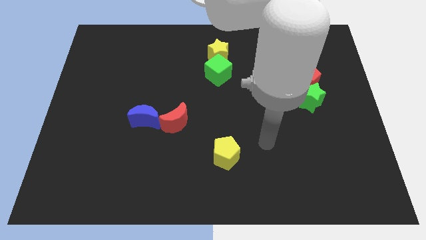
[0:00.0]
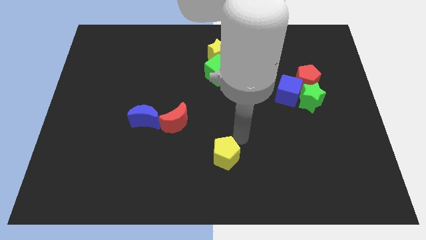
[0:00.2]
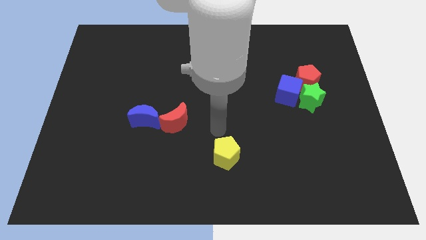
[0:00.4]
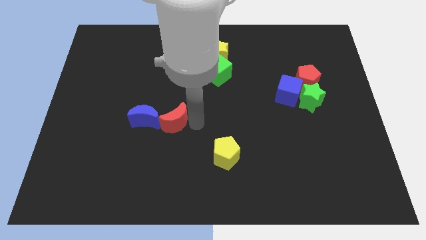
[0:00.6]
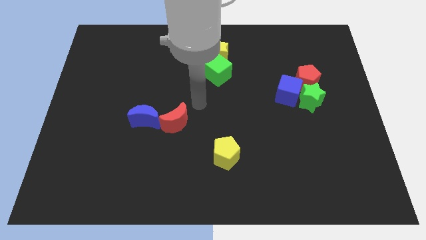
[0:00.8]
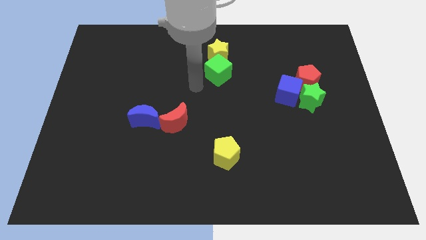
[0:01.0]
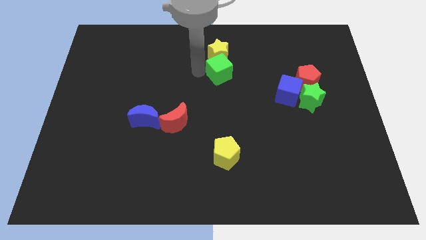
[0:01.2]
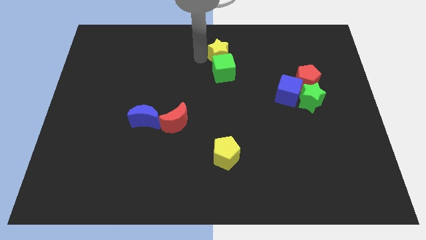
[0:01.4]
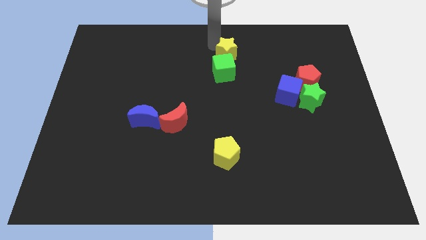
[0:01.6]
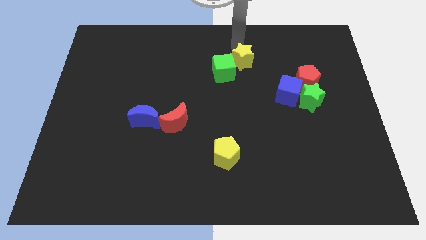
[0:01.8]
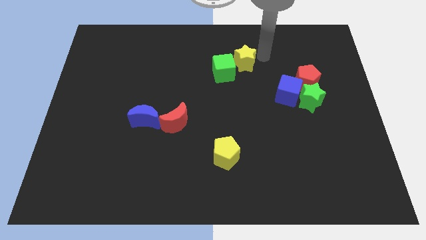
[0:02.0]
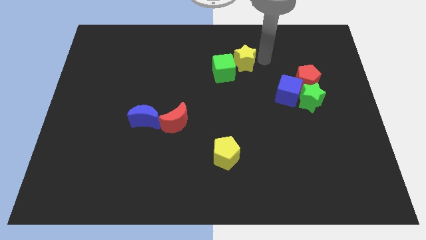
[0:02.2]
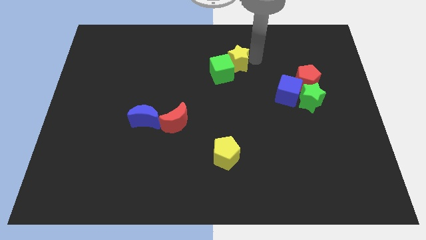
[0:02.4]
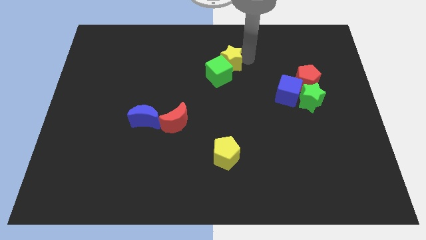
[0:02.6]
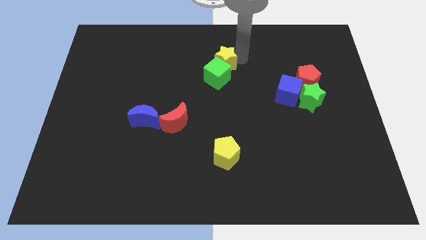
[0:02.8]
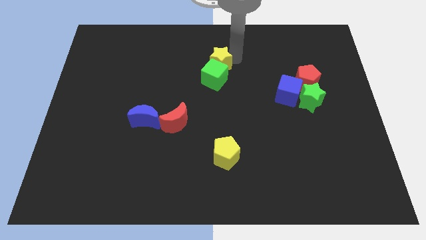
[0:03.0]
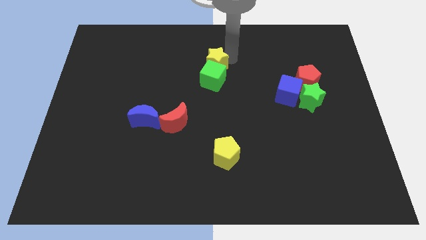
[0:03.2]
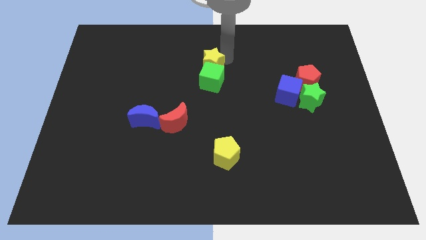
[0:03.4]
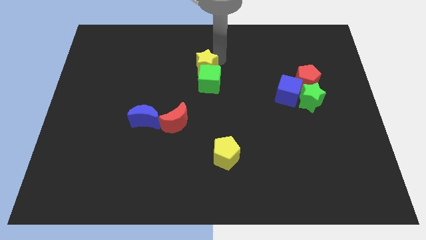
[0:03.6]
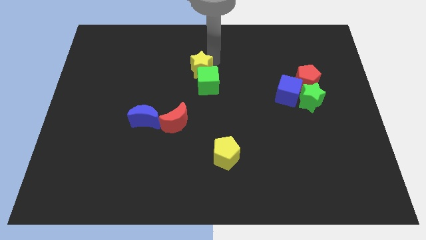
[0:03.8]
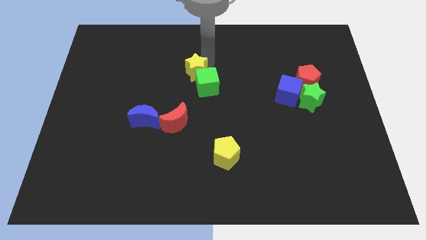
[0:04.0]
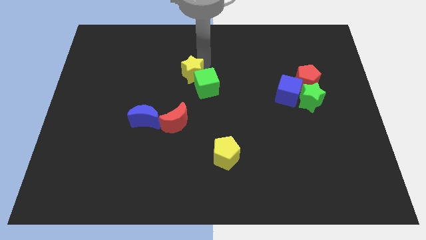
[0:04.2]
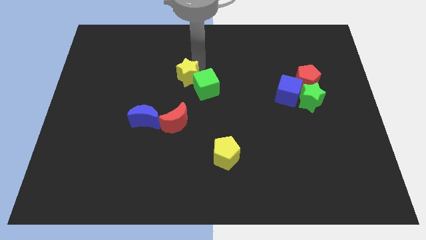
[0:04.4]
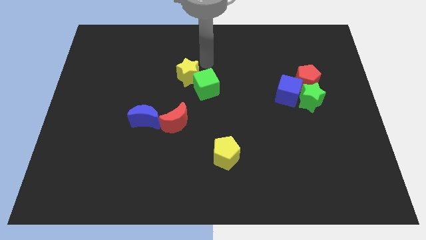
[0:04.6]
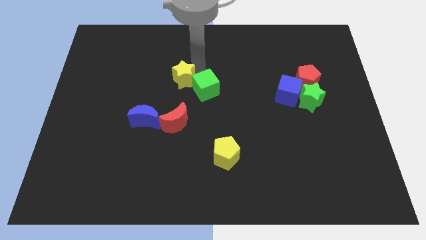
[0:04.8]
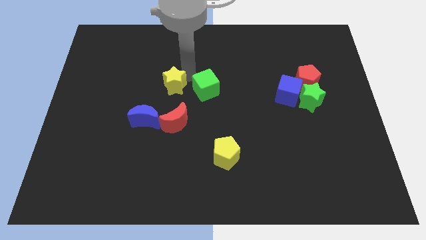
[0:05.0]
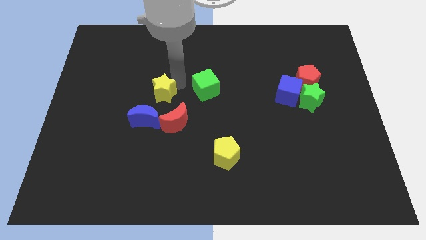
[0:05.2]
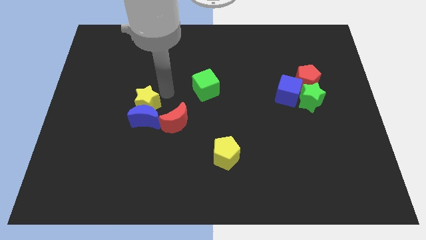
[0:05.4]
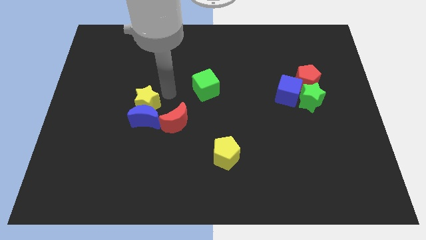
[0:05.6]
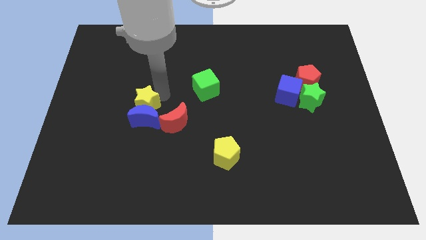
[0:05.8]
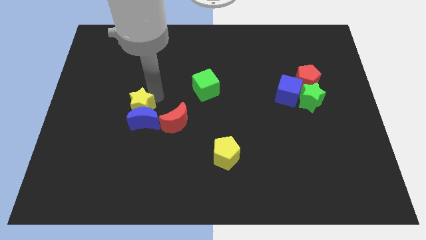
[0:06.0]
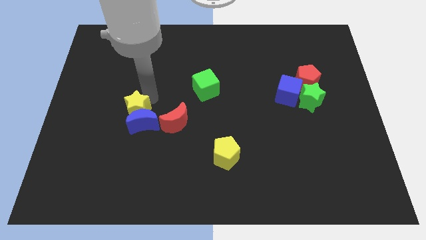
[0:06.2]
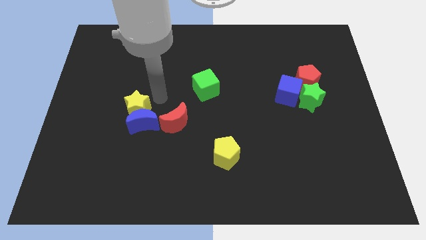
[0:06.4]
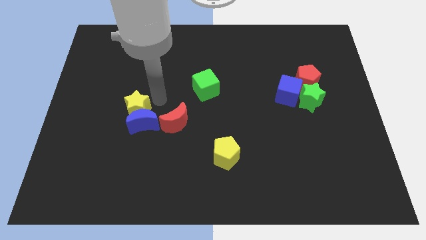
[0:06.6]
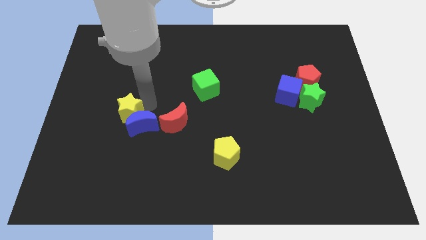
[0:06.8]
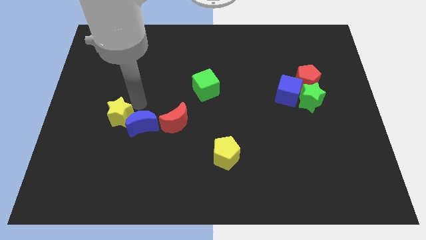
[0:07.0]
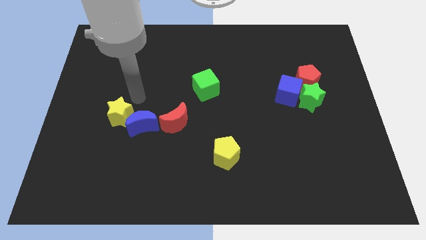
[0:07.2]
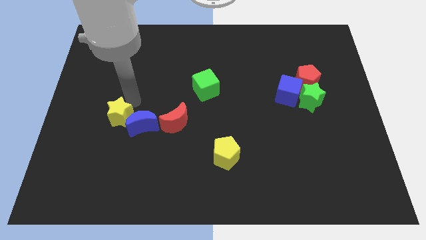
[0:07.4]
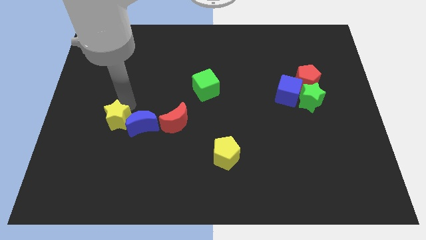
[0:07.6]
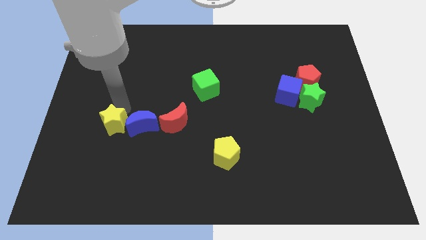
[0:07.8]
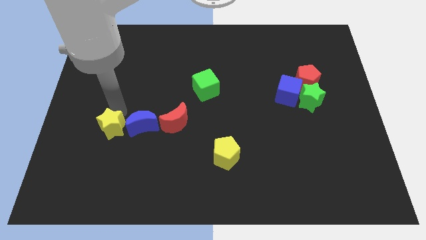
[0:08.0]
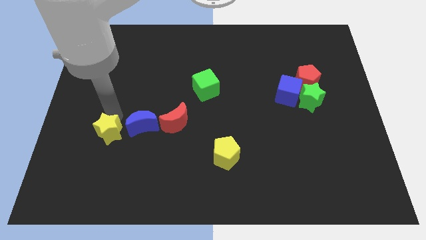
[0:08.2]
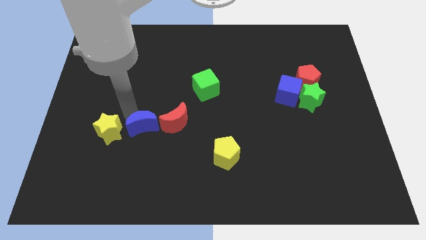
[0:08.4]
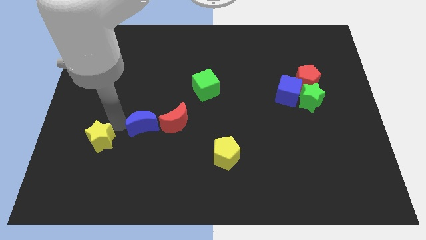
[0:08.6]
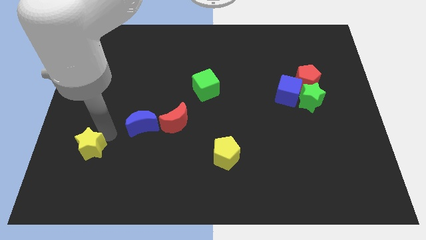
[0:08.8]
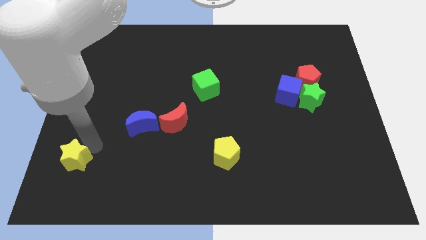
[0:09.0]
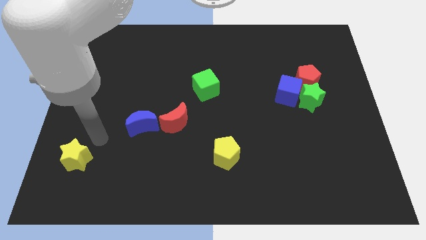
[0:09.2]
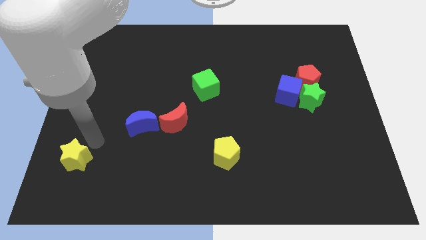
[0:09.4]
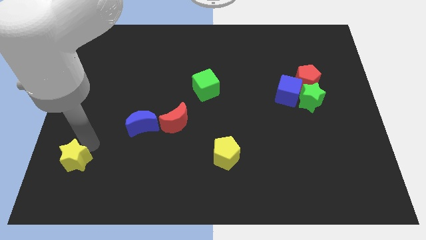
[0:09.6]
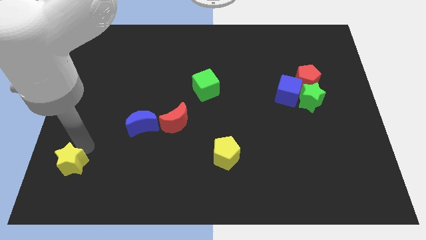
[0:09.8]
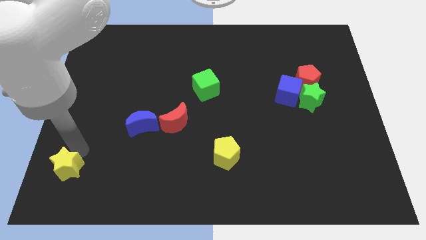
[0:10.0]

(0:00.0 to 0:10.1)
move the yellow star to the lower left corner
